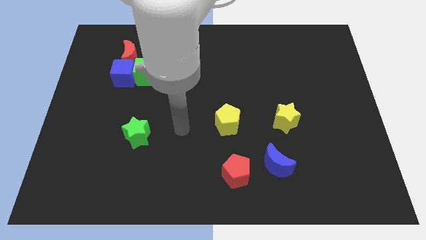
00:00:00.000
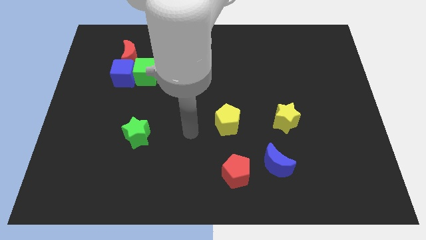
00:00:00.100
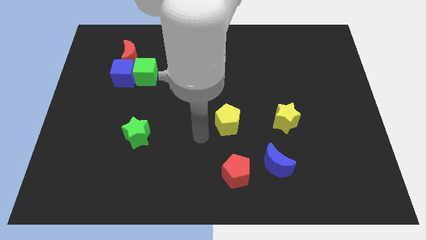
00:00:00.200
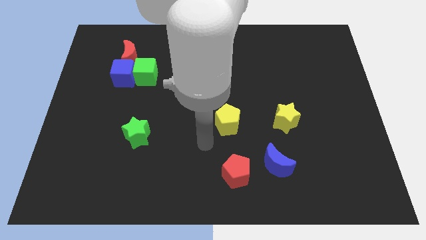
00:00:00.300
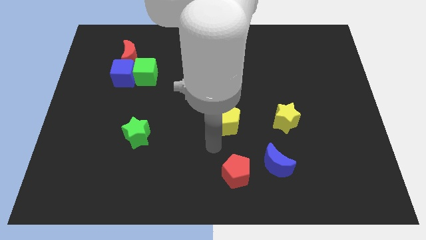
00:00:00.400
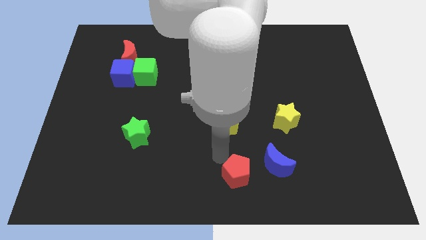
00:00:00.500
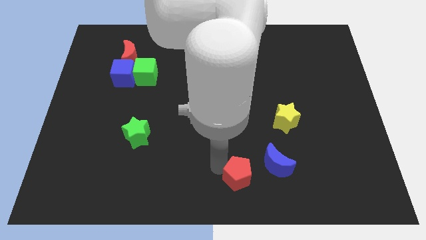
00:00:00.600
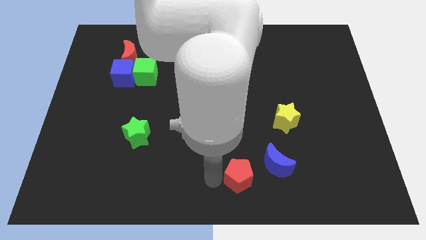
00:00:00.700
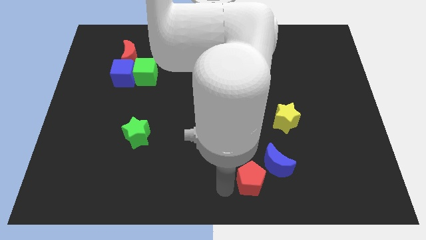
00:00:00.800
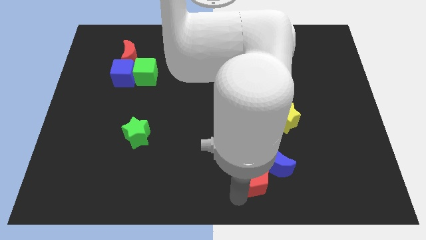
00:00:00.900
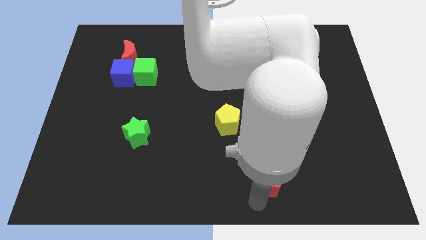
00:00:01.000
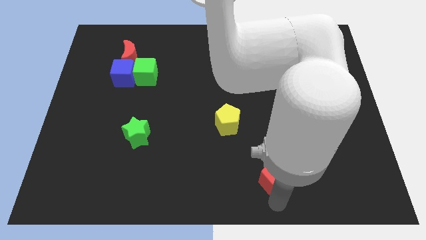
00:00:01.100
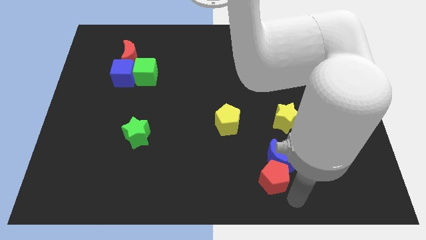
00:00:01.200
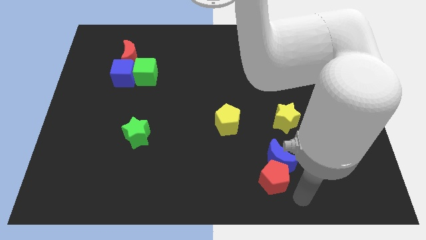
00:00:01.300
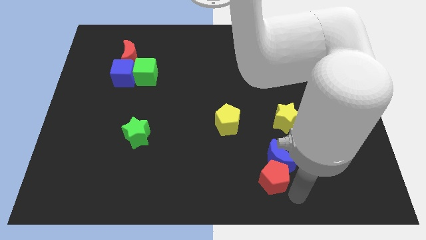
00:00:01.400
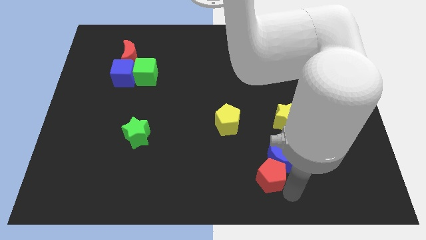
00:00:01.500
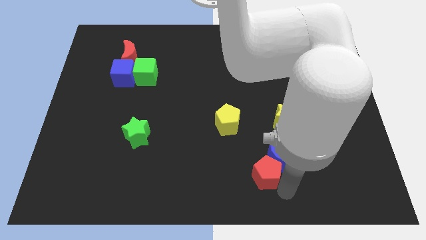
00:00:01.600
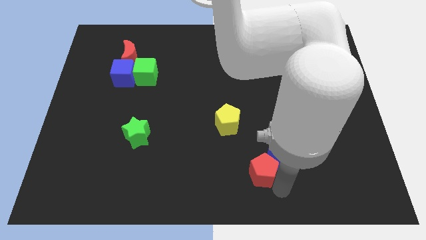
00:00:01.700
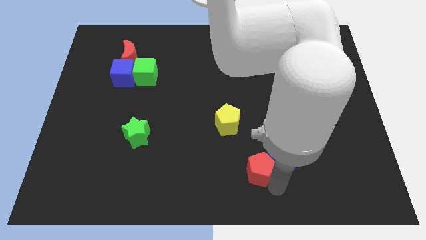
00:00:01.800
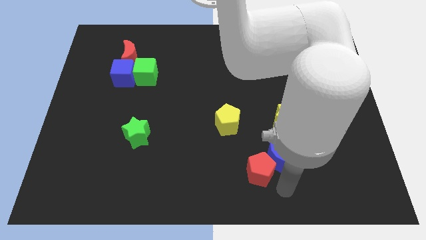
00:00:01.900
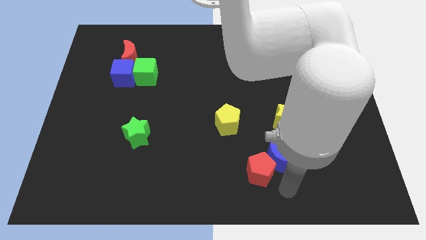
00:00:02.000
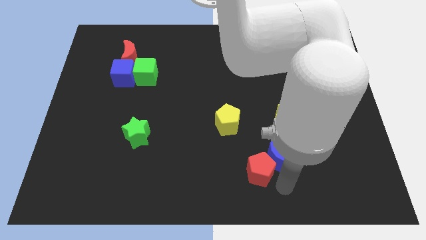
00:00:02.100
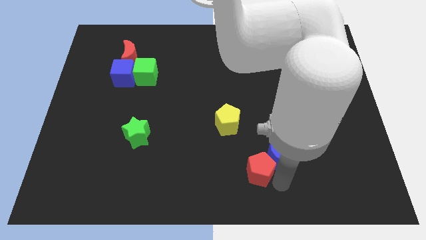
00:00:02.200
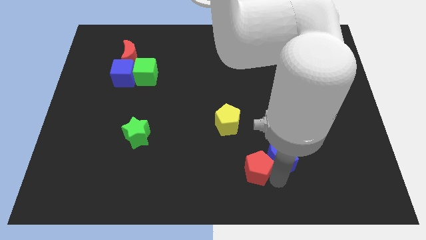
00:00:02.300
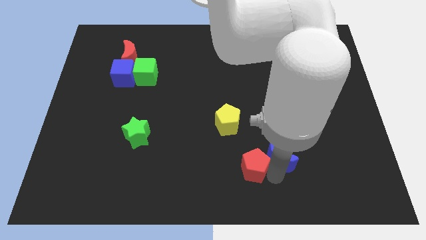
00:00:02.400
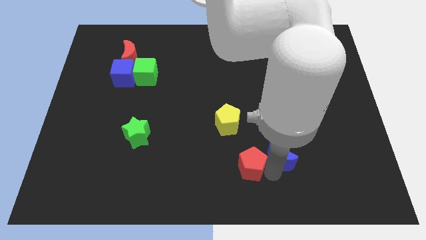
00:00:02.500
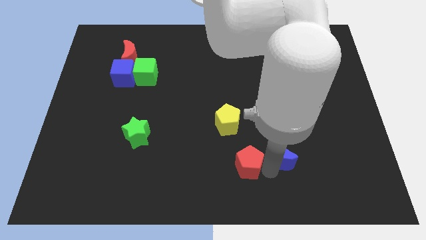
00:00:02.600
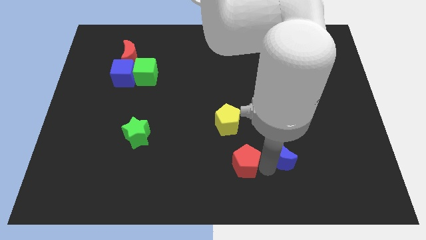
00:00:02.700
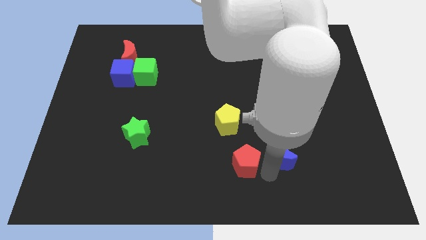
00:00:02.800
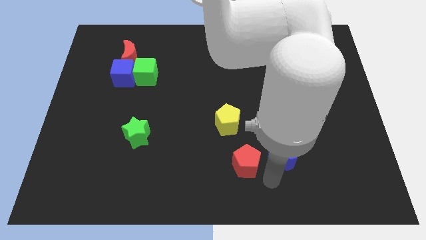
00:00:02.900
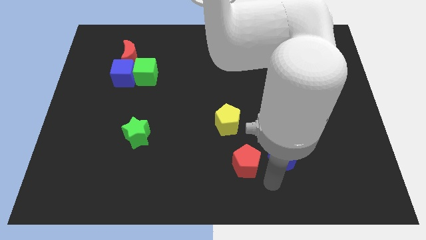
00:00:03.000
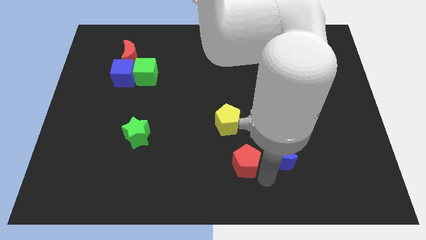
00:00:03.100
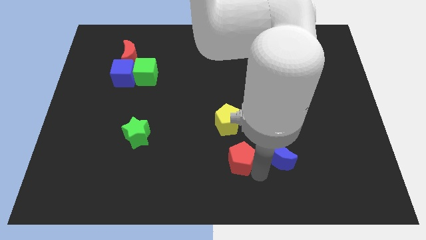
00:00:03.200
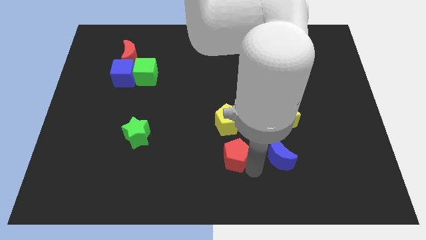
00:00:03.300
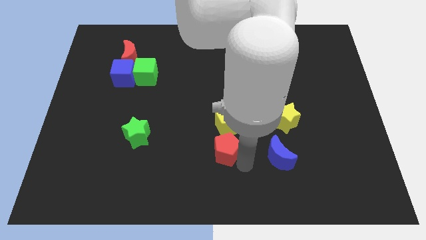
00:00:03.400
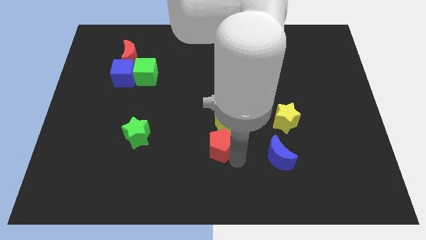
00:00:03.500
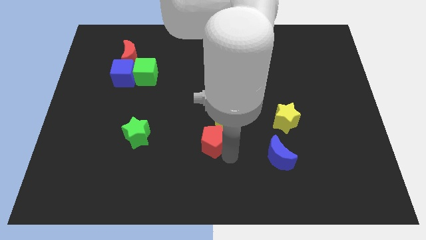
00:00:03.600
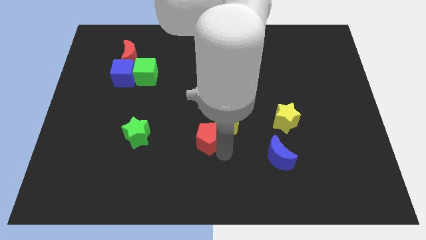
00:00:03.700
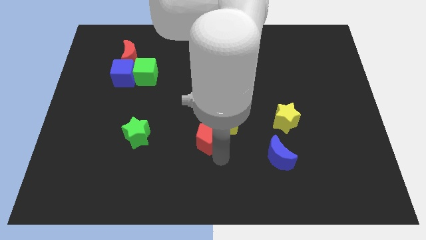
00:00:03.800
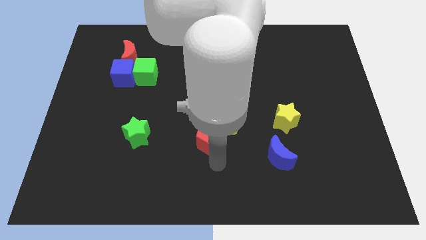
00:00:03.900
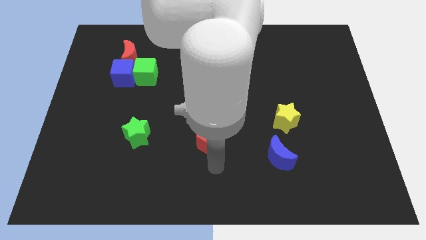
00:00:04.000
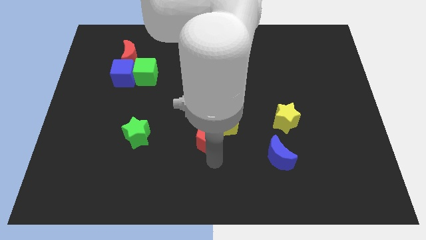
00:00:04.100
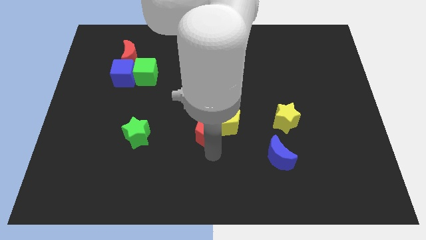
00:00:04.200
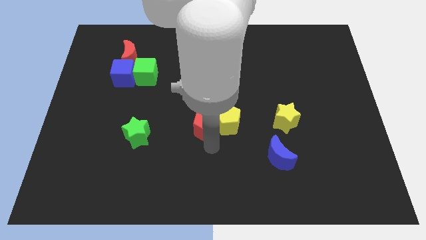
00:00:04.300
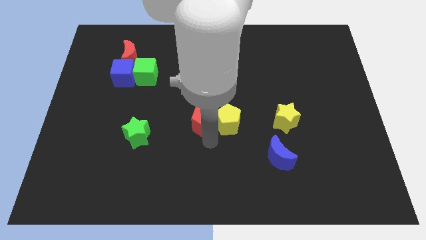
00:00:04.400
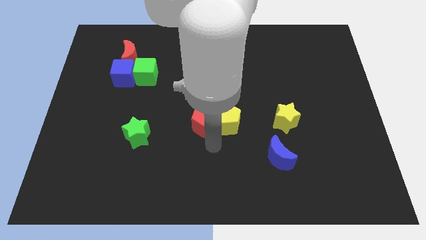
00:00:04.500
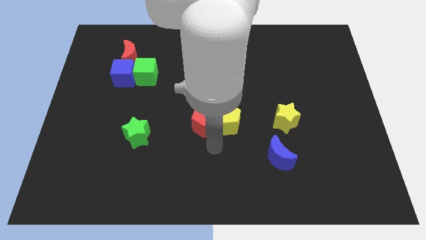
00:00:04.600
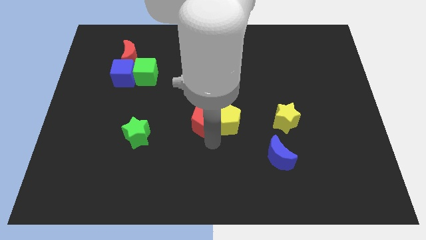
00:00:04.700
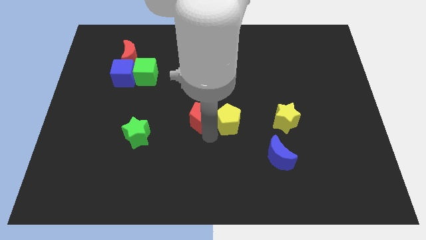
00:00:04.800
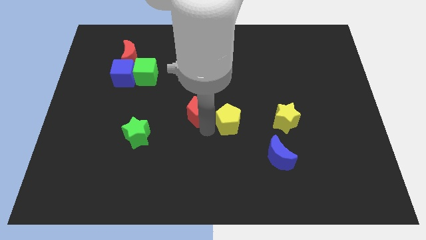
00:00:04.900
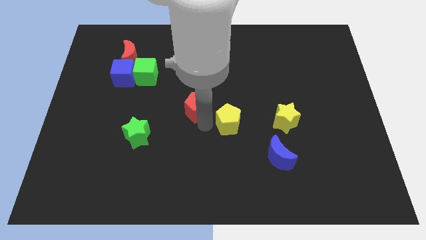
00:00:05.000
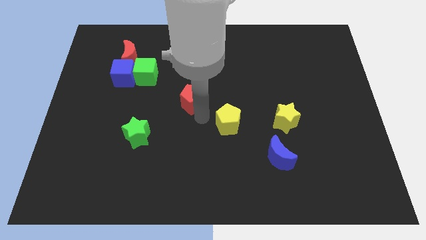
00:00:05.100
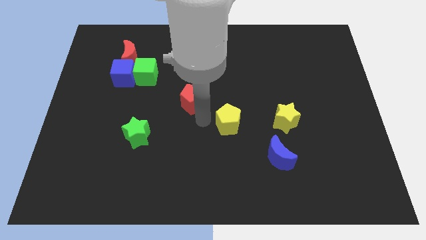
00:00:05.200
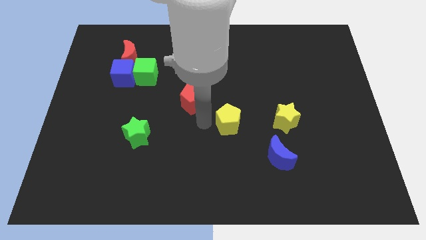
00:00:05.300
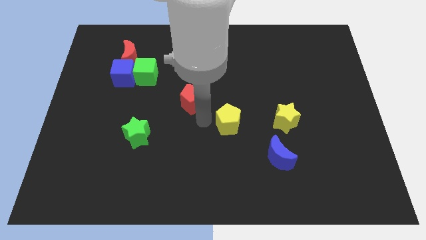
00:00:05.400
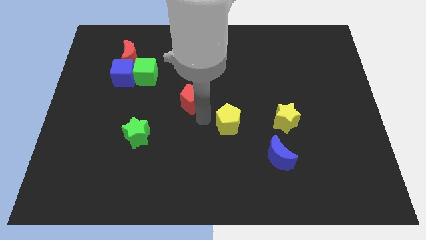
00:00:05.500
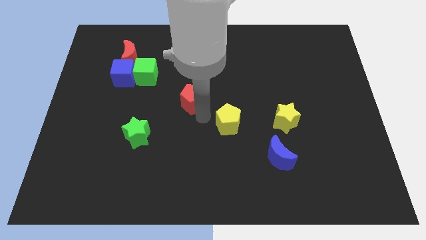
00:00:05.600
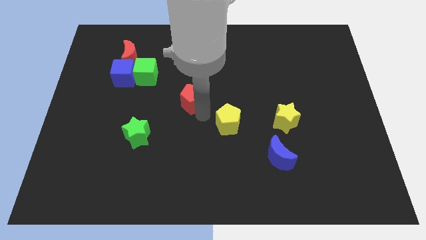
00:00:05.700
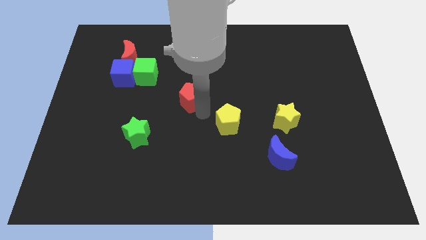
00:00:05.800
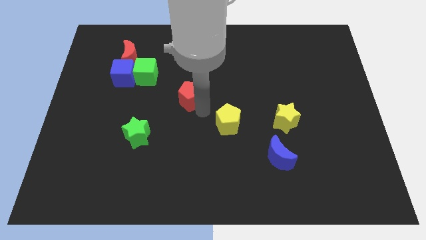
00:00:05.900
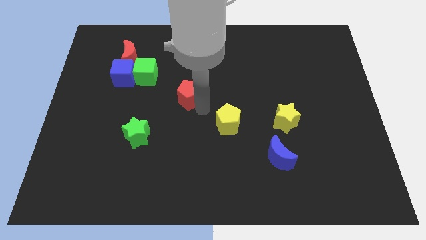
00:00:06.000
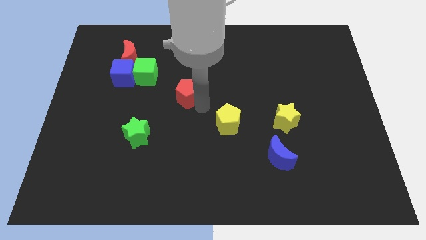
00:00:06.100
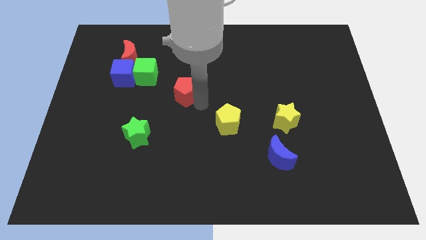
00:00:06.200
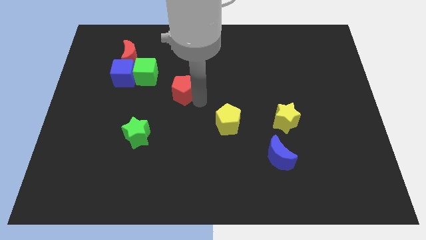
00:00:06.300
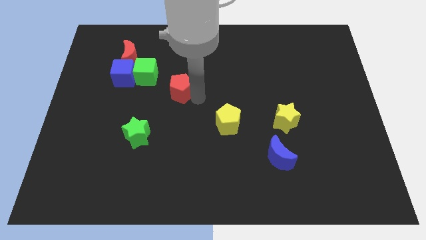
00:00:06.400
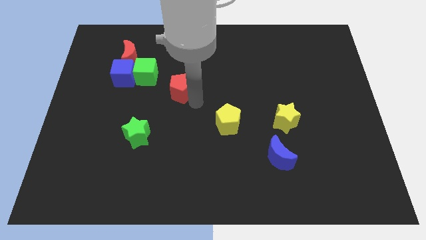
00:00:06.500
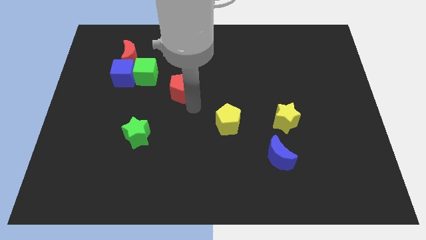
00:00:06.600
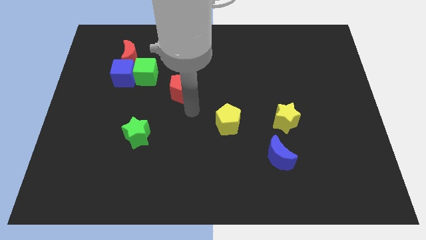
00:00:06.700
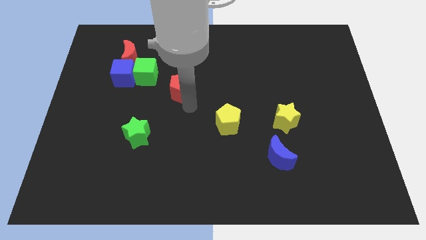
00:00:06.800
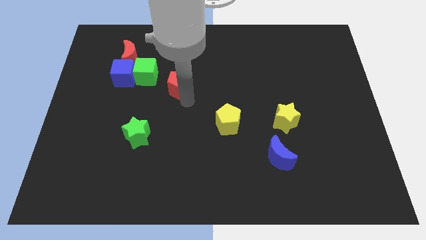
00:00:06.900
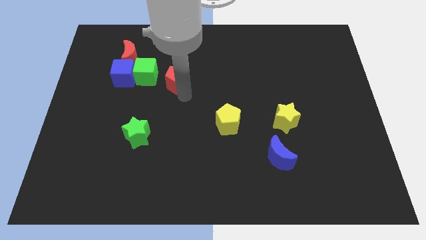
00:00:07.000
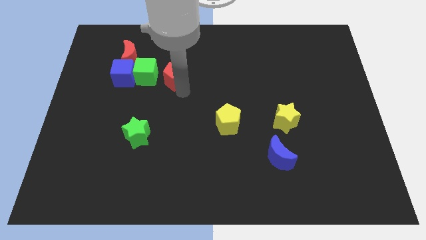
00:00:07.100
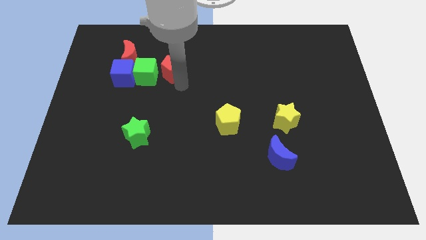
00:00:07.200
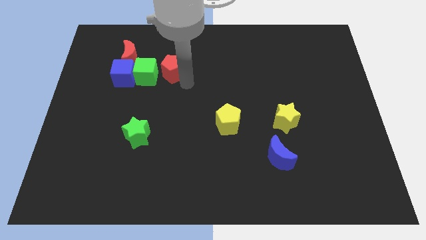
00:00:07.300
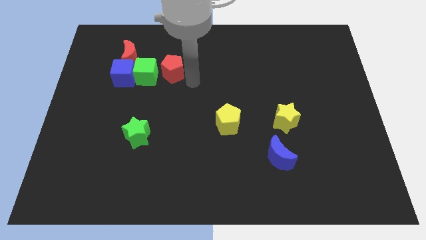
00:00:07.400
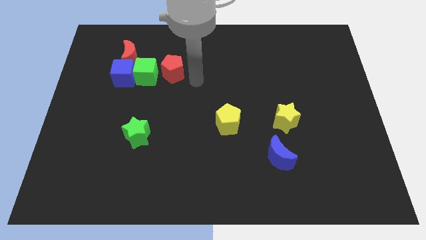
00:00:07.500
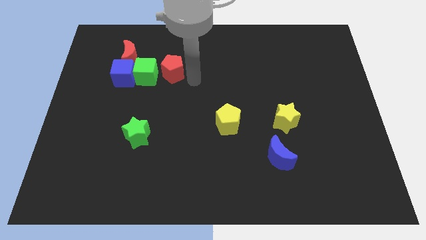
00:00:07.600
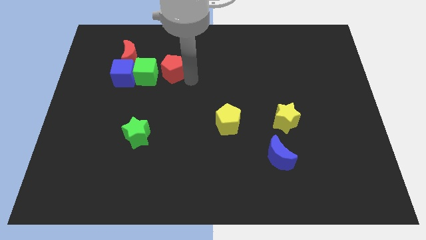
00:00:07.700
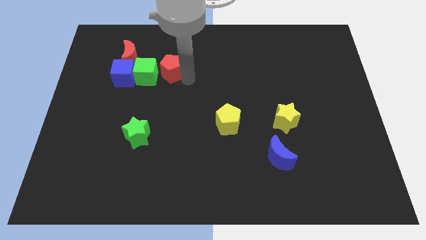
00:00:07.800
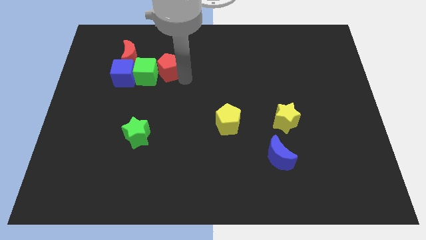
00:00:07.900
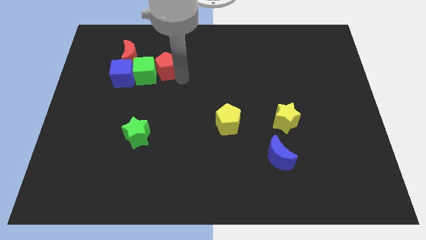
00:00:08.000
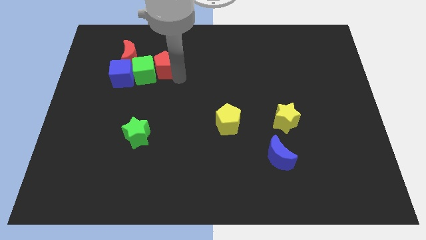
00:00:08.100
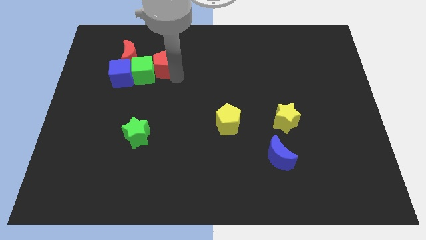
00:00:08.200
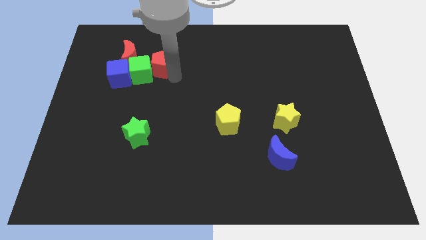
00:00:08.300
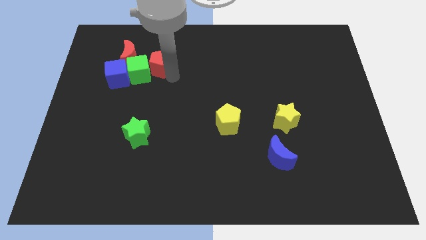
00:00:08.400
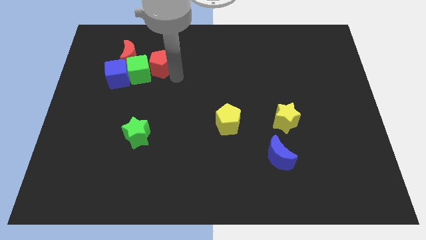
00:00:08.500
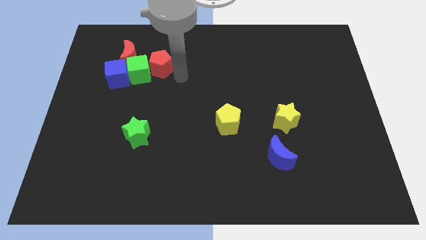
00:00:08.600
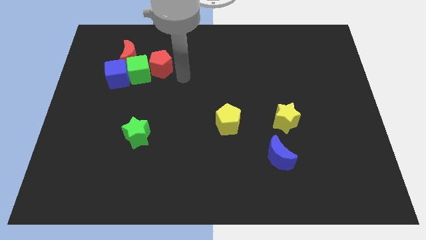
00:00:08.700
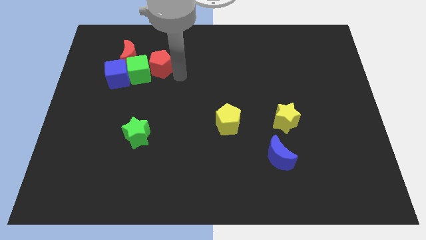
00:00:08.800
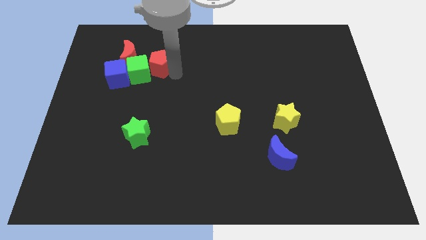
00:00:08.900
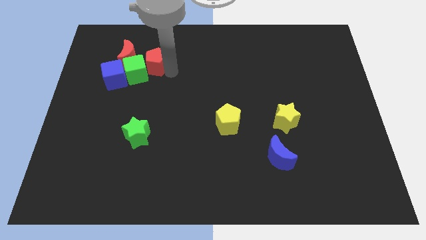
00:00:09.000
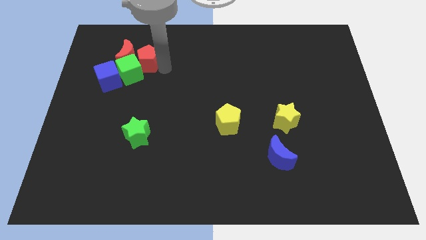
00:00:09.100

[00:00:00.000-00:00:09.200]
move the red pentagon to the red moon
